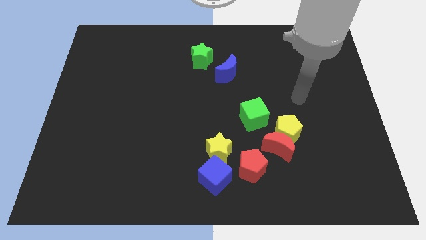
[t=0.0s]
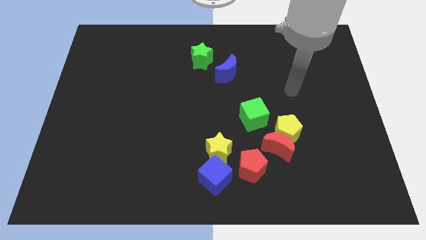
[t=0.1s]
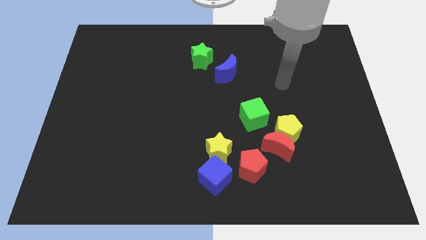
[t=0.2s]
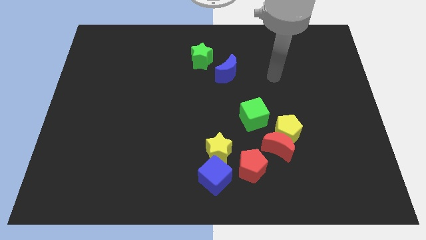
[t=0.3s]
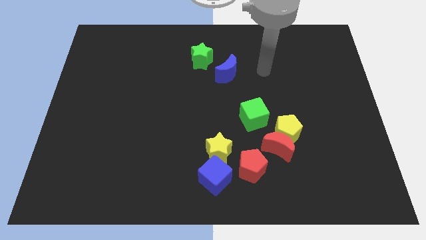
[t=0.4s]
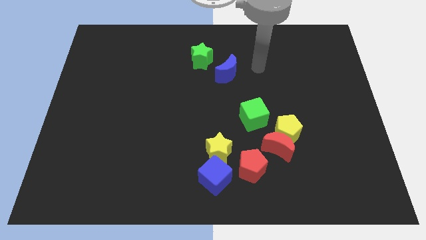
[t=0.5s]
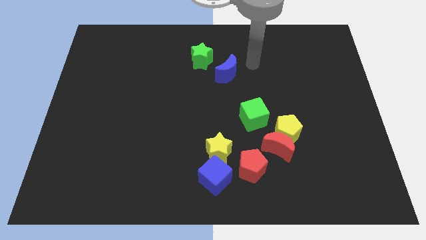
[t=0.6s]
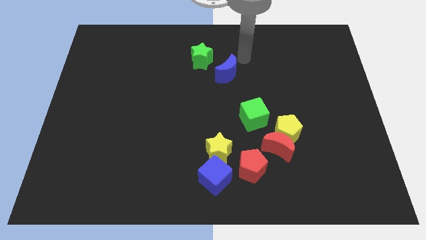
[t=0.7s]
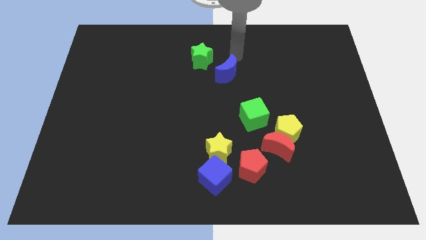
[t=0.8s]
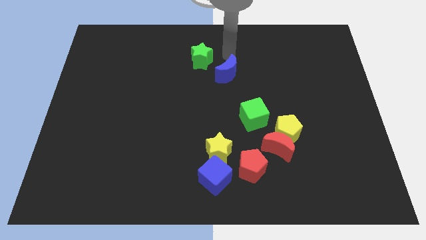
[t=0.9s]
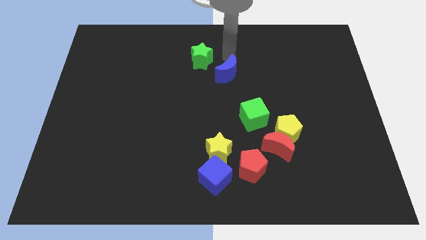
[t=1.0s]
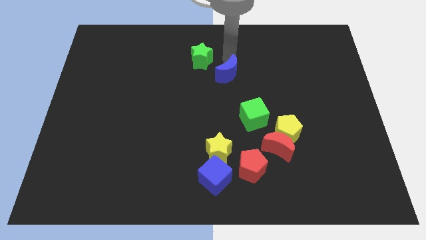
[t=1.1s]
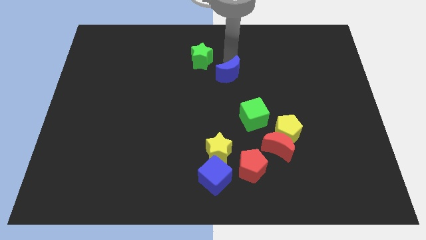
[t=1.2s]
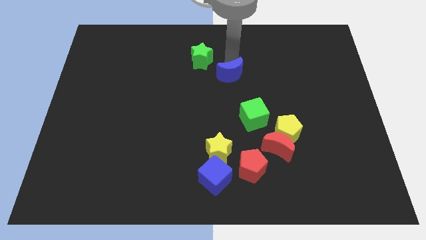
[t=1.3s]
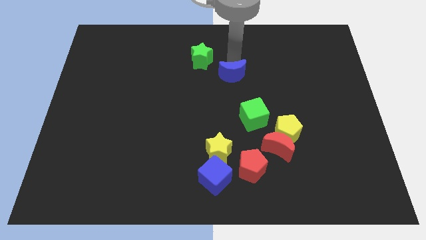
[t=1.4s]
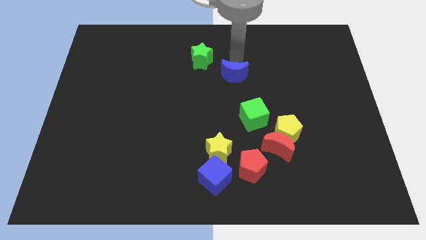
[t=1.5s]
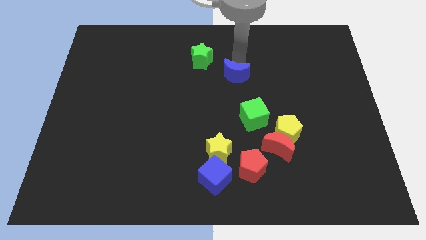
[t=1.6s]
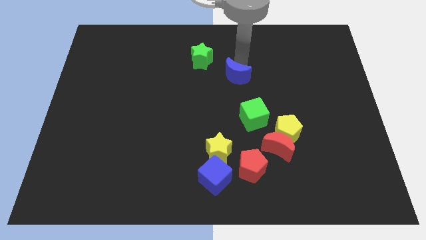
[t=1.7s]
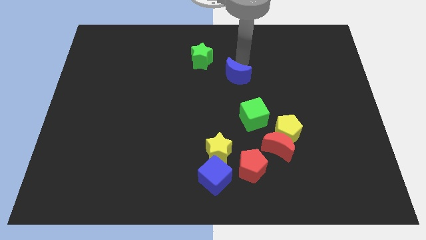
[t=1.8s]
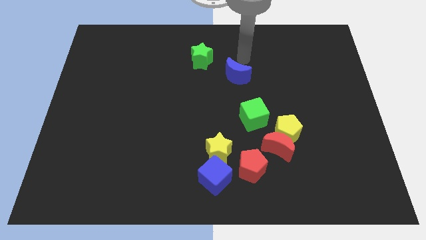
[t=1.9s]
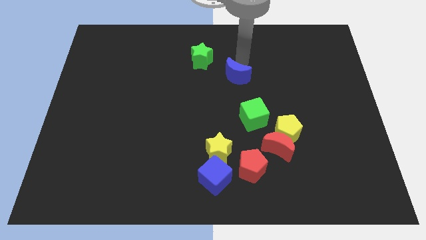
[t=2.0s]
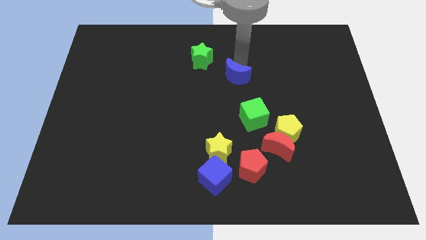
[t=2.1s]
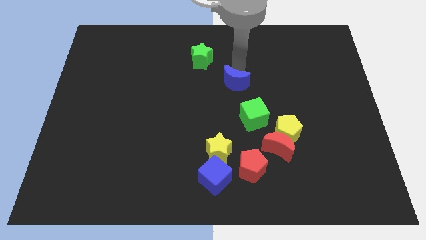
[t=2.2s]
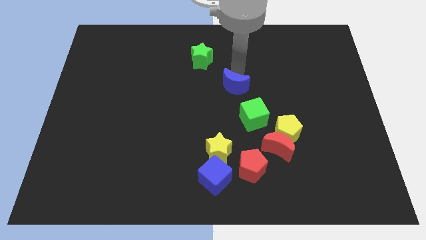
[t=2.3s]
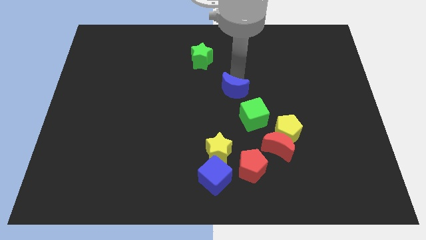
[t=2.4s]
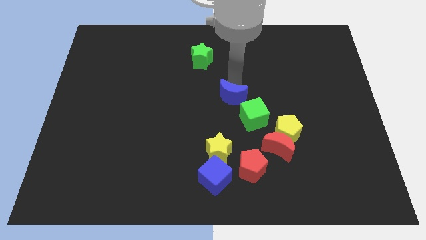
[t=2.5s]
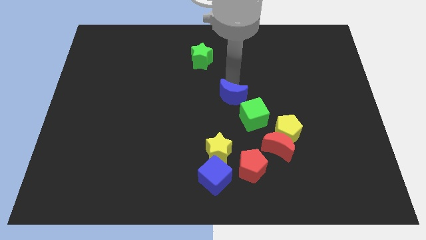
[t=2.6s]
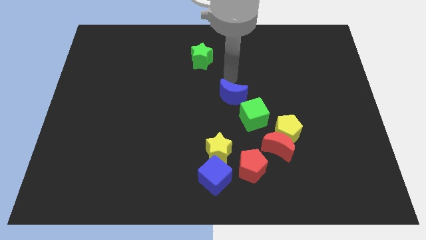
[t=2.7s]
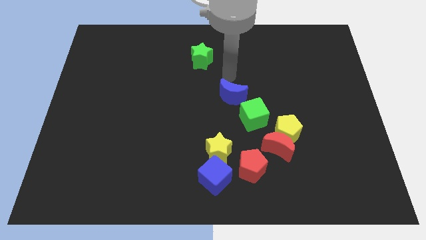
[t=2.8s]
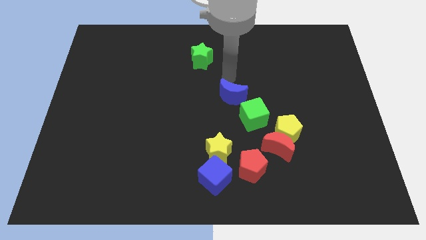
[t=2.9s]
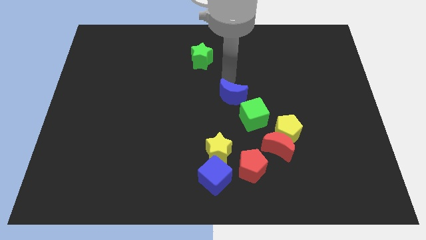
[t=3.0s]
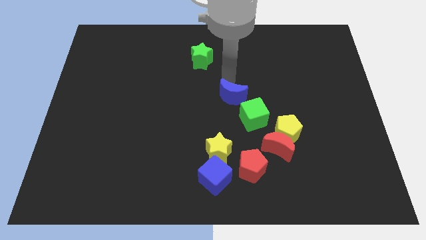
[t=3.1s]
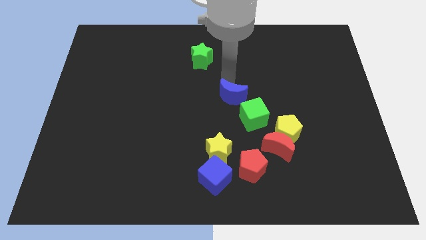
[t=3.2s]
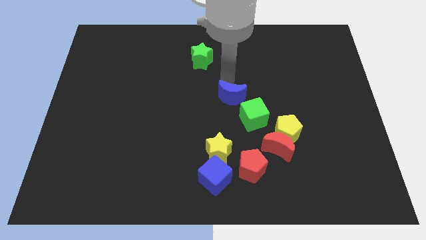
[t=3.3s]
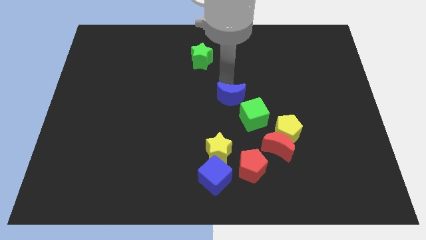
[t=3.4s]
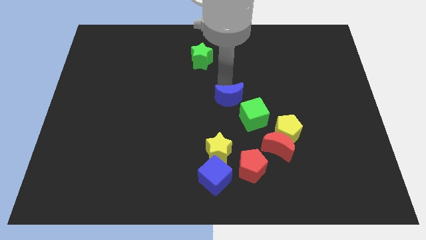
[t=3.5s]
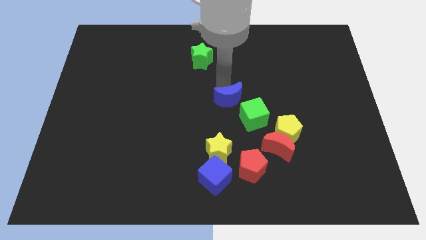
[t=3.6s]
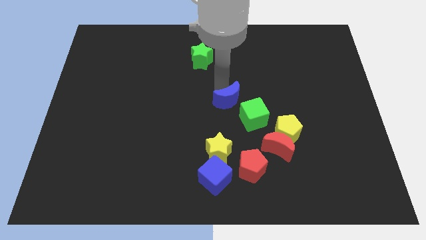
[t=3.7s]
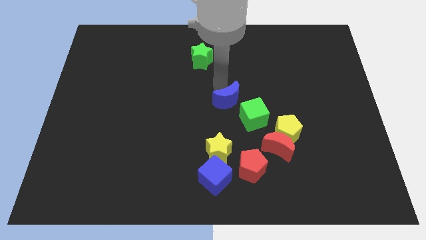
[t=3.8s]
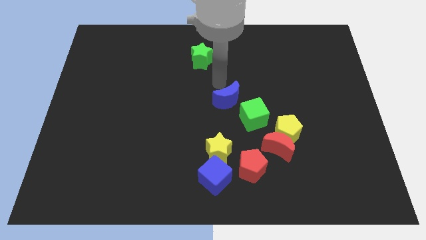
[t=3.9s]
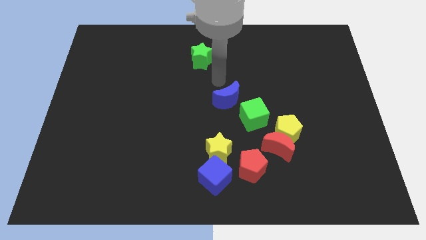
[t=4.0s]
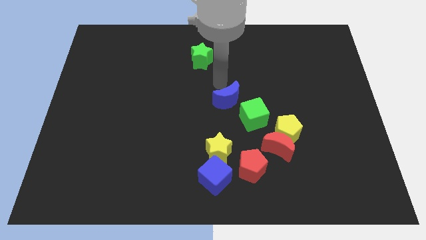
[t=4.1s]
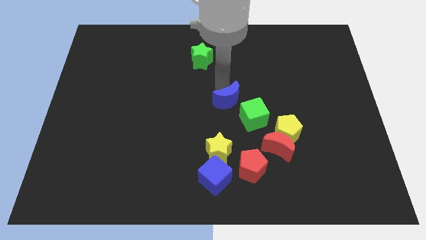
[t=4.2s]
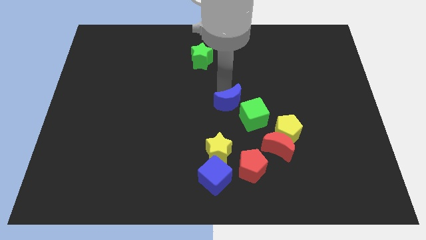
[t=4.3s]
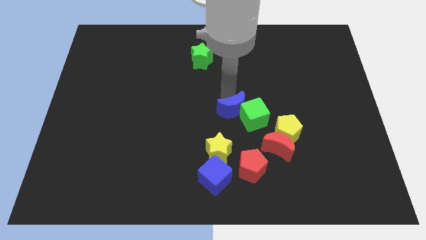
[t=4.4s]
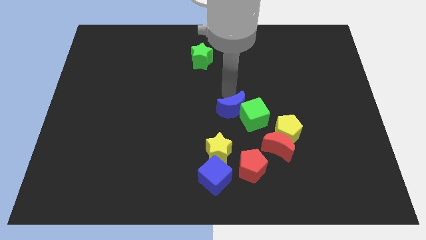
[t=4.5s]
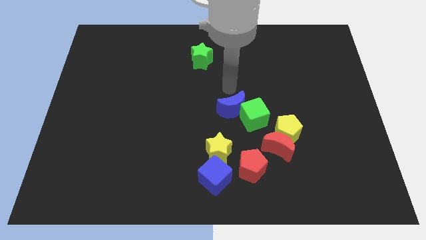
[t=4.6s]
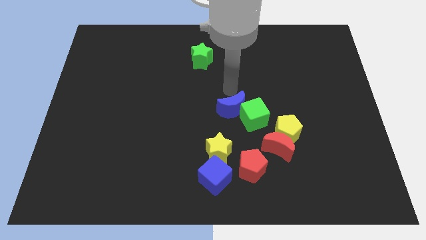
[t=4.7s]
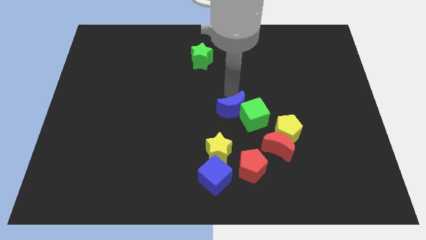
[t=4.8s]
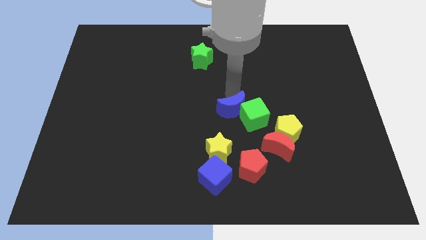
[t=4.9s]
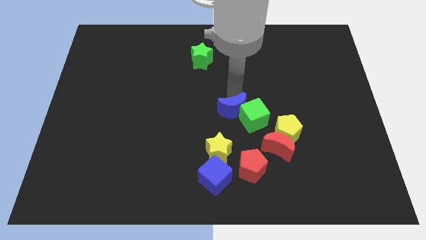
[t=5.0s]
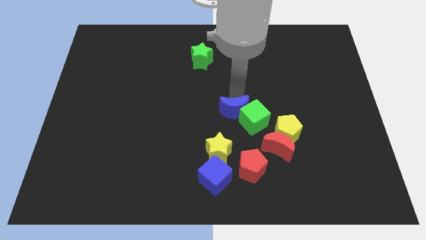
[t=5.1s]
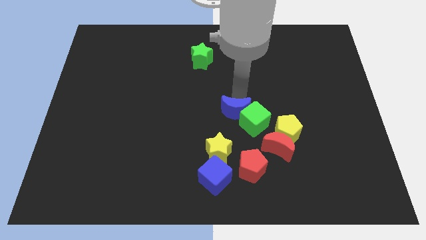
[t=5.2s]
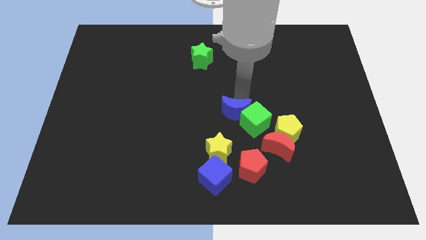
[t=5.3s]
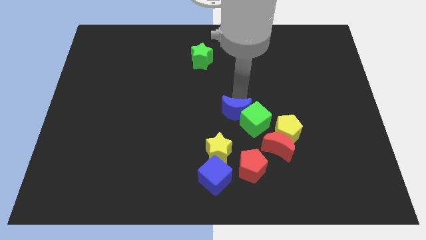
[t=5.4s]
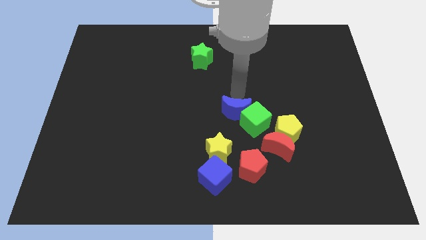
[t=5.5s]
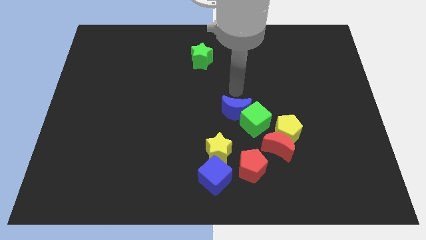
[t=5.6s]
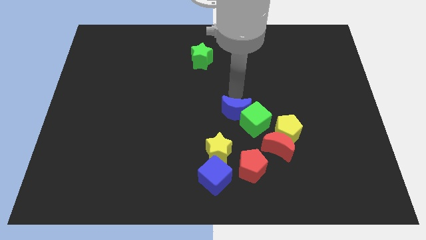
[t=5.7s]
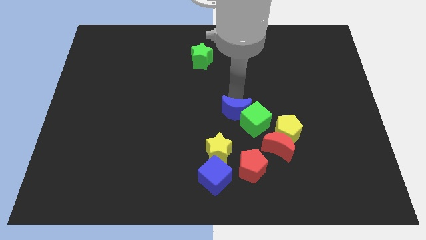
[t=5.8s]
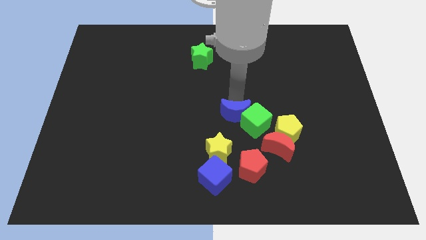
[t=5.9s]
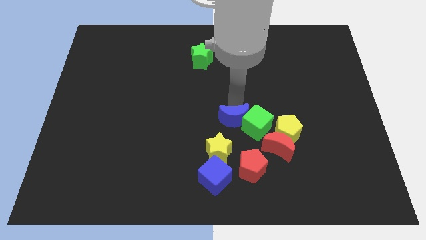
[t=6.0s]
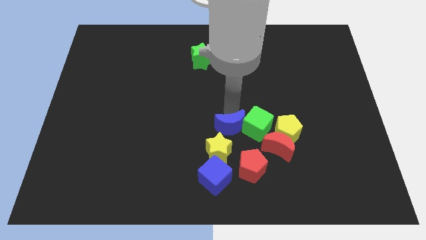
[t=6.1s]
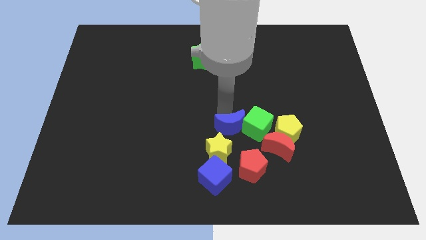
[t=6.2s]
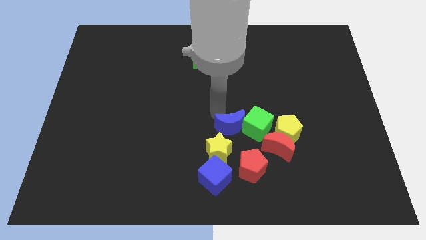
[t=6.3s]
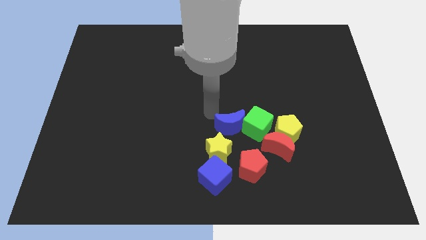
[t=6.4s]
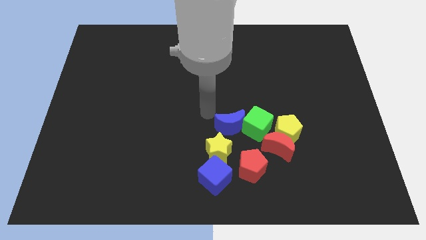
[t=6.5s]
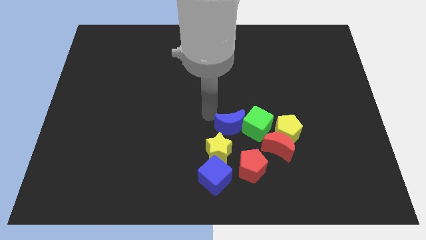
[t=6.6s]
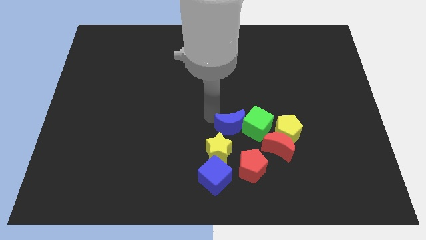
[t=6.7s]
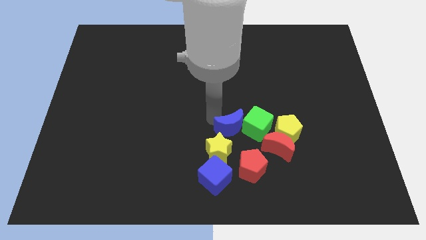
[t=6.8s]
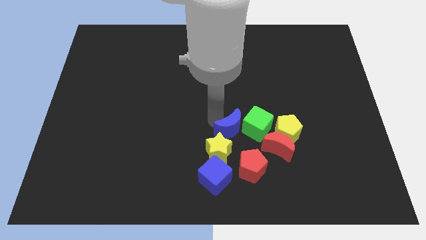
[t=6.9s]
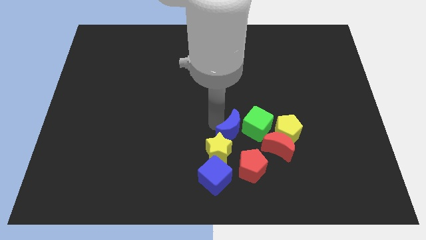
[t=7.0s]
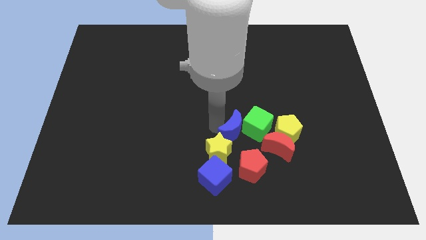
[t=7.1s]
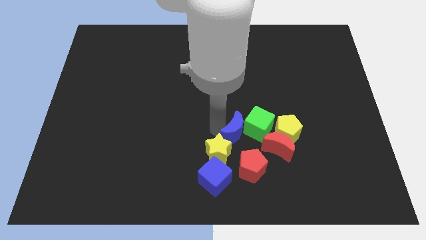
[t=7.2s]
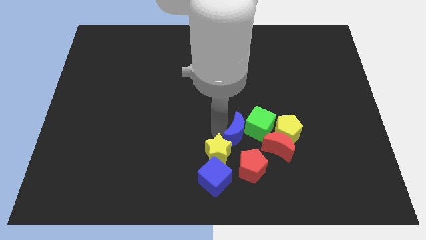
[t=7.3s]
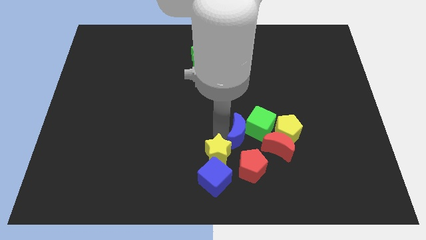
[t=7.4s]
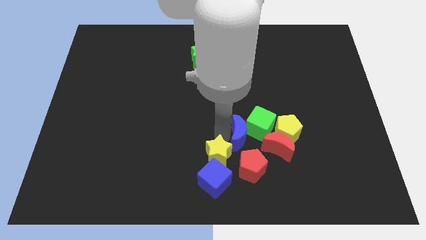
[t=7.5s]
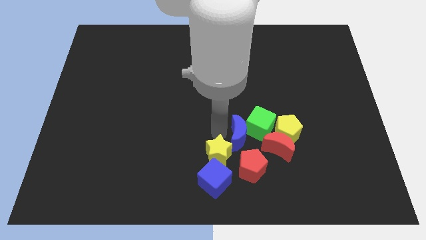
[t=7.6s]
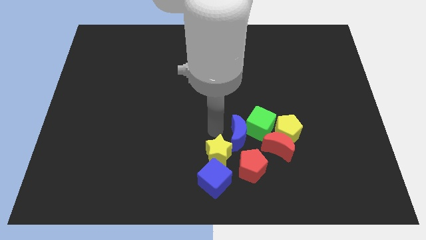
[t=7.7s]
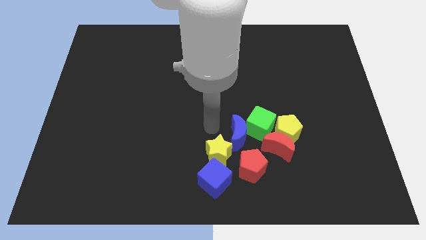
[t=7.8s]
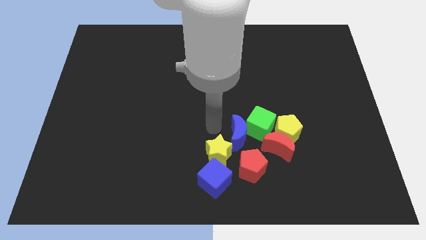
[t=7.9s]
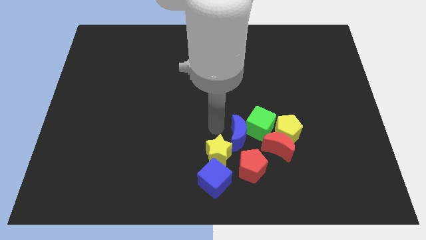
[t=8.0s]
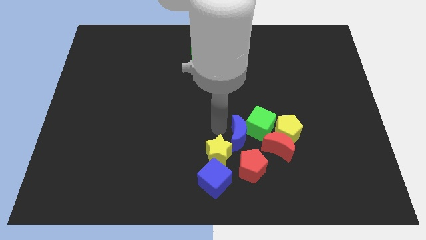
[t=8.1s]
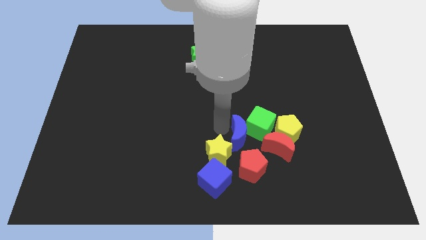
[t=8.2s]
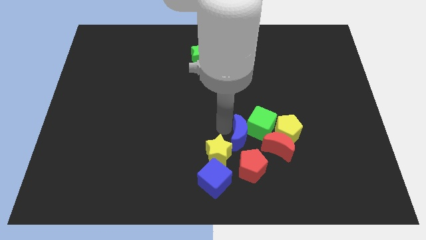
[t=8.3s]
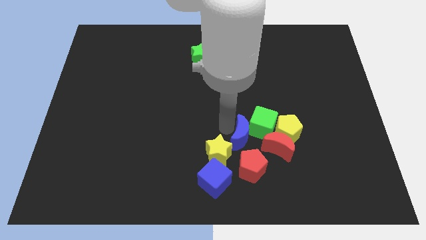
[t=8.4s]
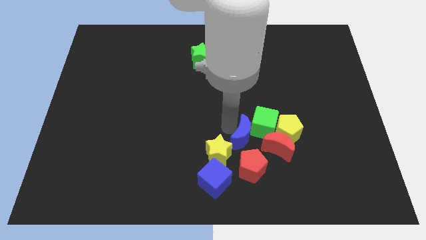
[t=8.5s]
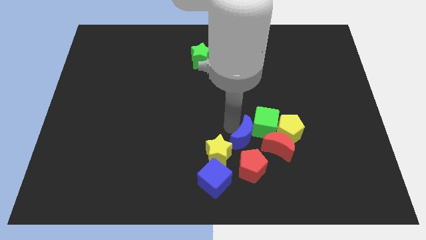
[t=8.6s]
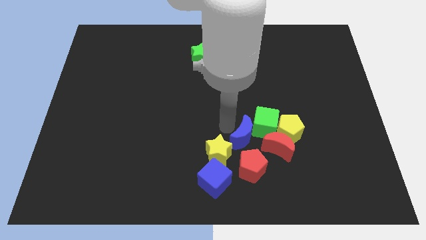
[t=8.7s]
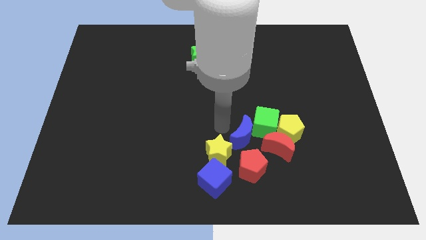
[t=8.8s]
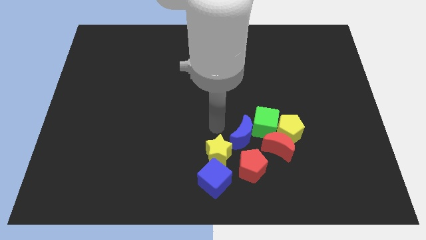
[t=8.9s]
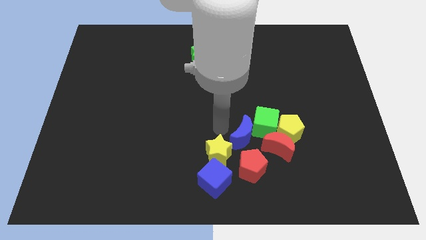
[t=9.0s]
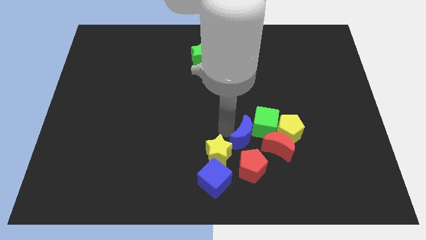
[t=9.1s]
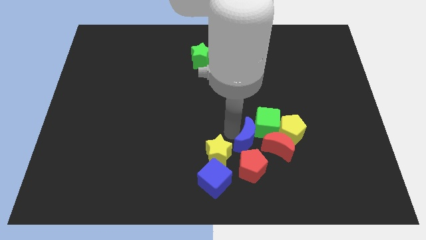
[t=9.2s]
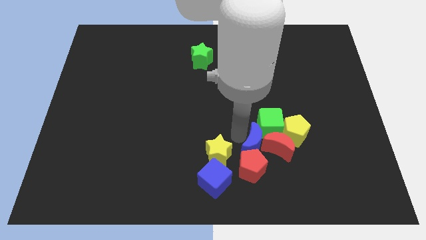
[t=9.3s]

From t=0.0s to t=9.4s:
slide the blue moon next to the red moon
